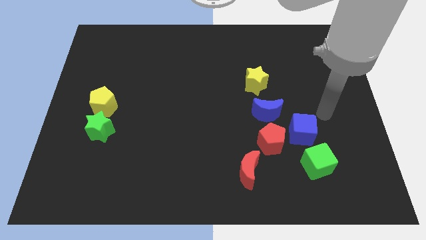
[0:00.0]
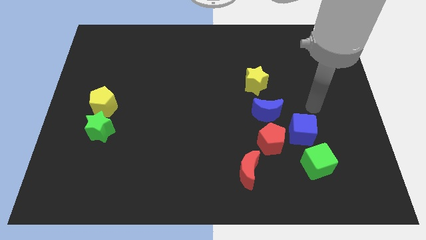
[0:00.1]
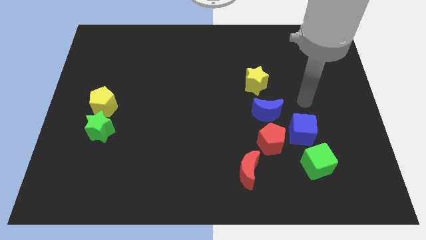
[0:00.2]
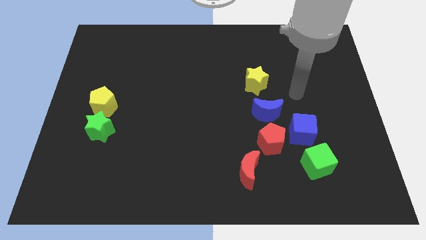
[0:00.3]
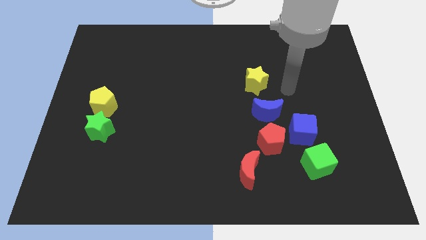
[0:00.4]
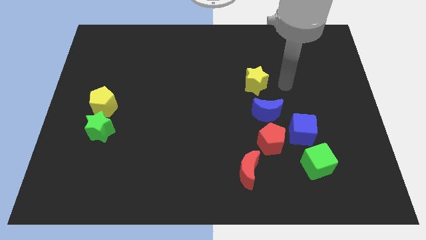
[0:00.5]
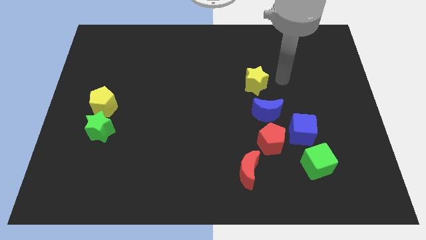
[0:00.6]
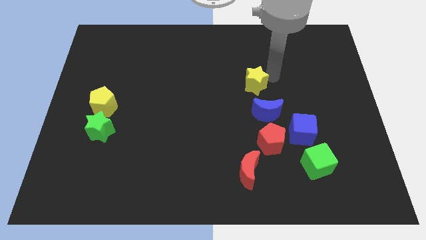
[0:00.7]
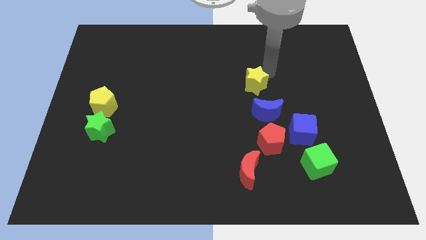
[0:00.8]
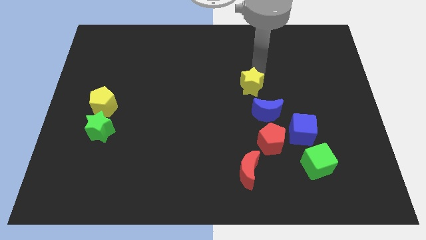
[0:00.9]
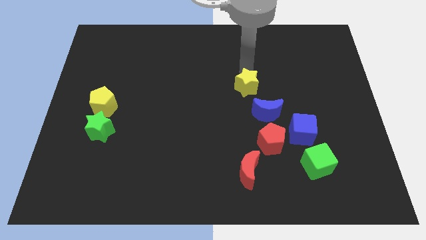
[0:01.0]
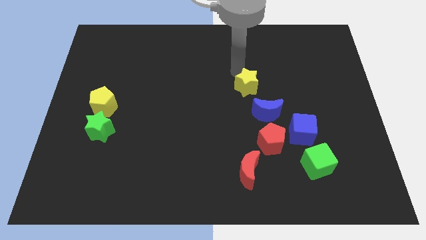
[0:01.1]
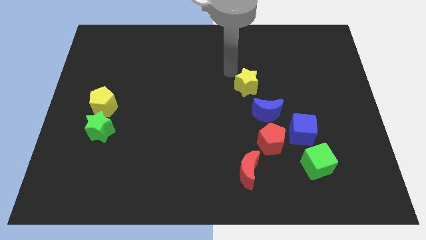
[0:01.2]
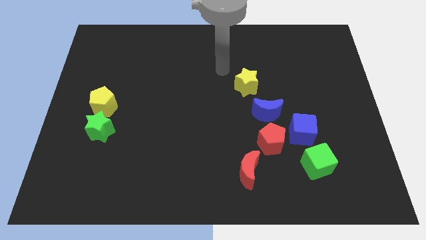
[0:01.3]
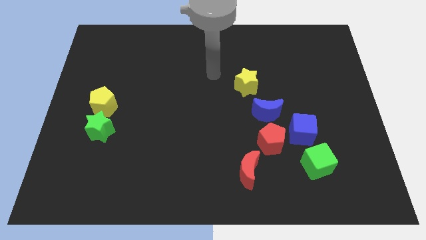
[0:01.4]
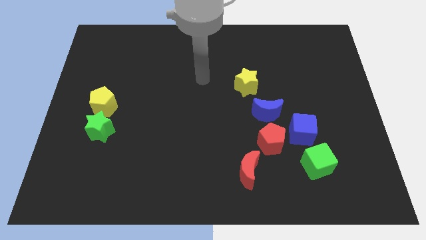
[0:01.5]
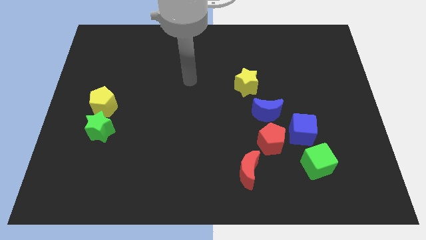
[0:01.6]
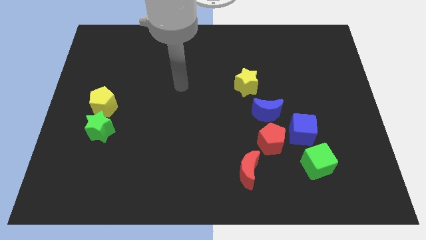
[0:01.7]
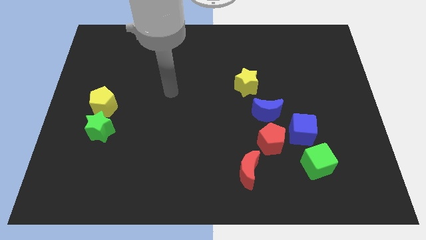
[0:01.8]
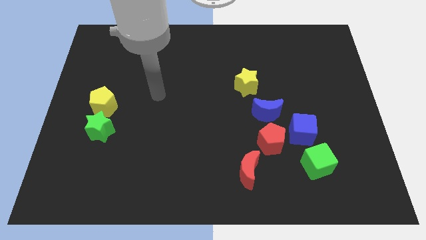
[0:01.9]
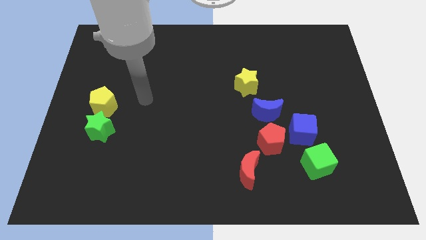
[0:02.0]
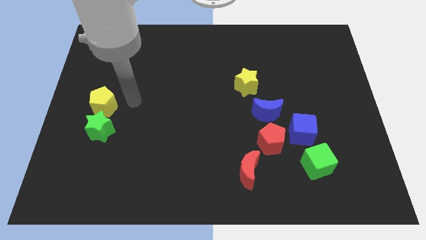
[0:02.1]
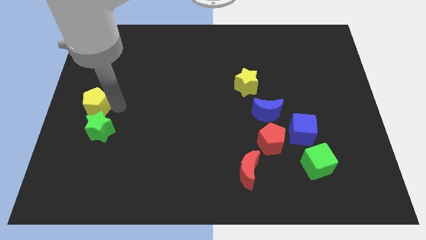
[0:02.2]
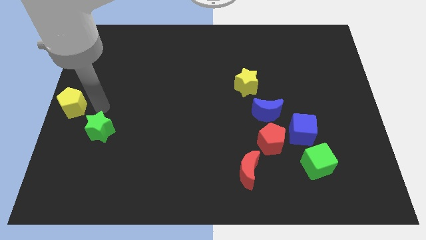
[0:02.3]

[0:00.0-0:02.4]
move the green star away from the yellow pentagon

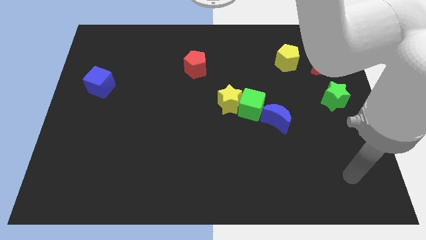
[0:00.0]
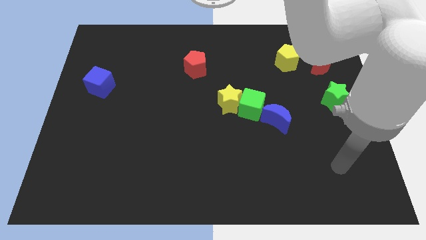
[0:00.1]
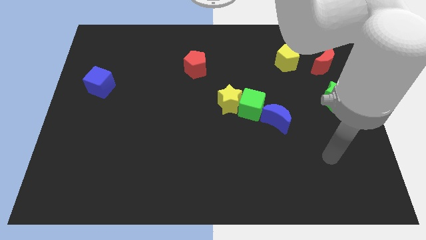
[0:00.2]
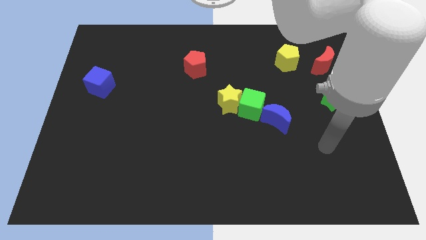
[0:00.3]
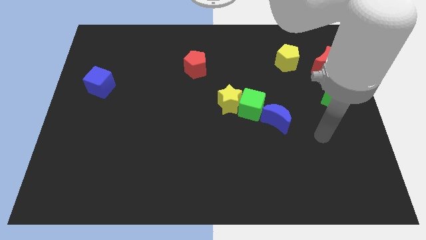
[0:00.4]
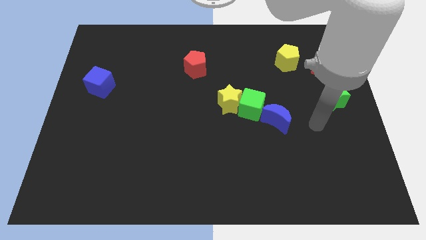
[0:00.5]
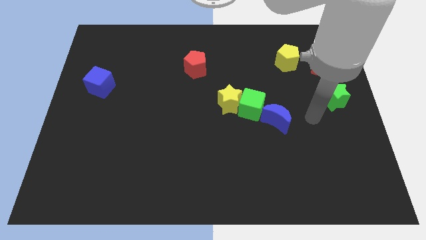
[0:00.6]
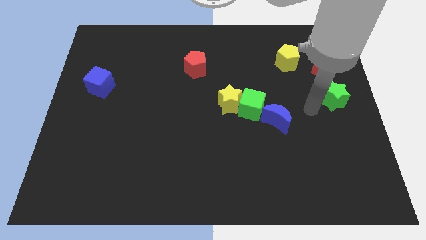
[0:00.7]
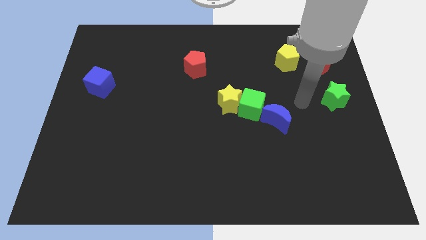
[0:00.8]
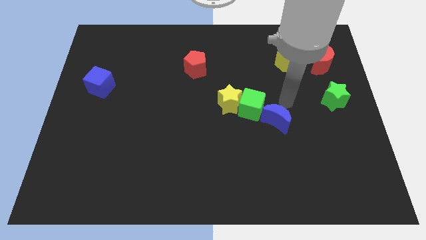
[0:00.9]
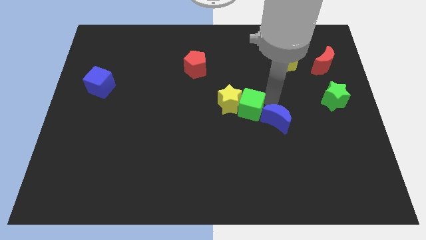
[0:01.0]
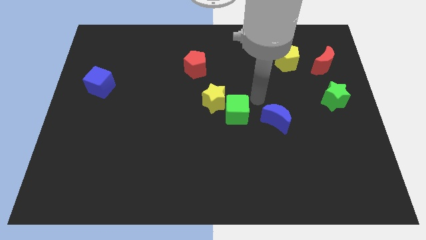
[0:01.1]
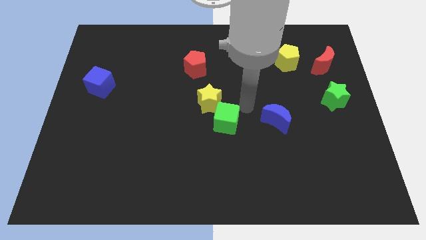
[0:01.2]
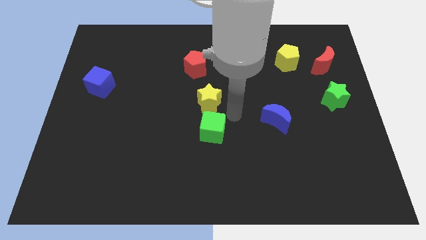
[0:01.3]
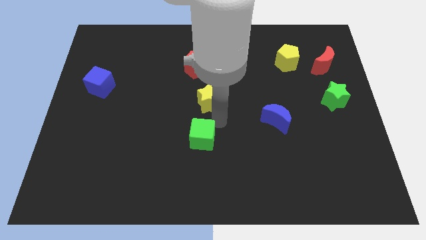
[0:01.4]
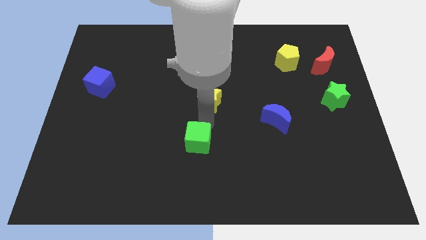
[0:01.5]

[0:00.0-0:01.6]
pull the yellow star apart from the green cube

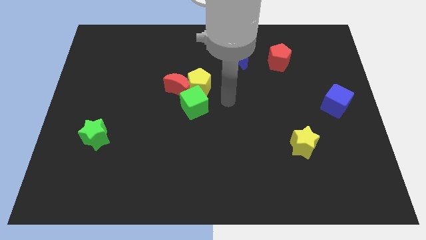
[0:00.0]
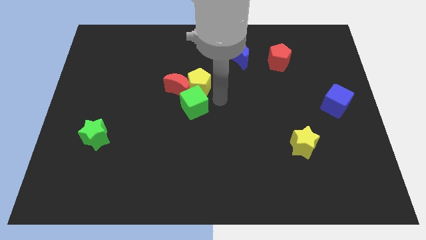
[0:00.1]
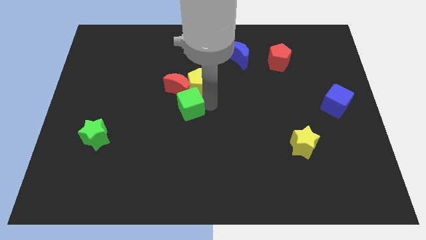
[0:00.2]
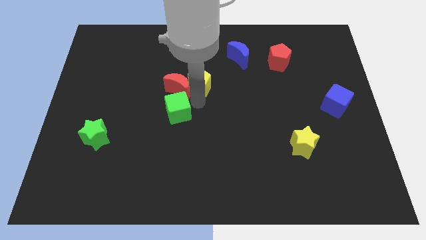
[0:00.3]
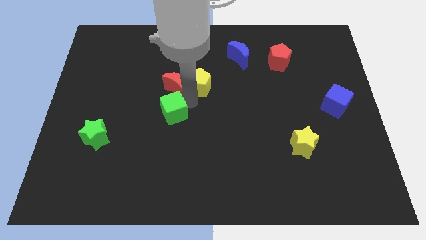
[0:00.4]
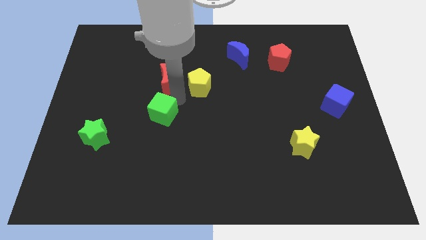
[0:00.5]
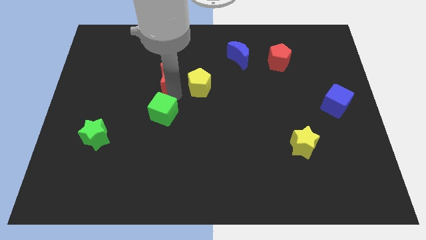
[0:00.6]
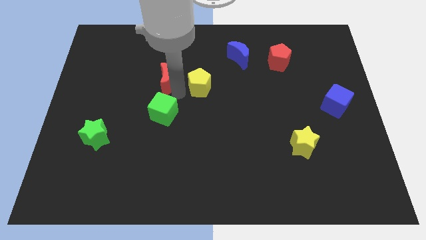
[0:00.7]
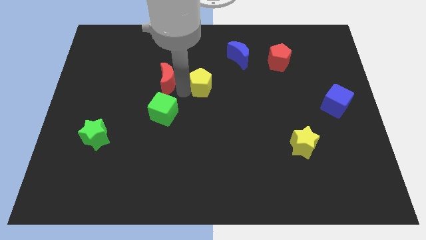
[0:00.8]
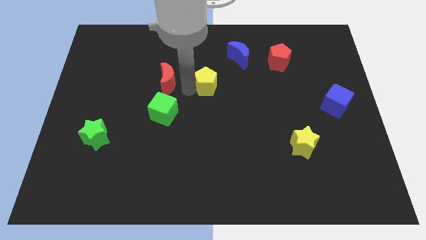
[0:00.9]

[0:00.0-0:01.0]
pull the yellow pentagon apart from the red moon and green cube

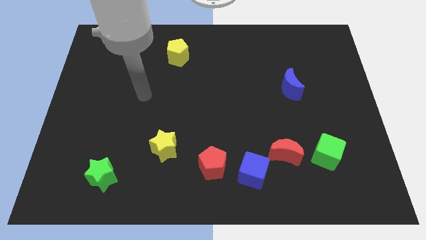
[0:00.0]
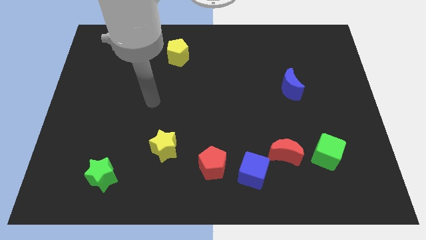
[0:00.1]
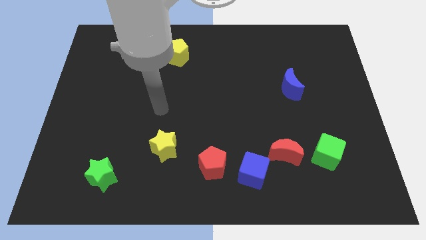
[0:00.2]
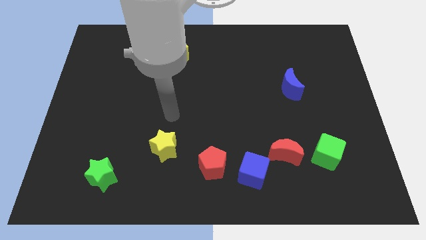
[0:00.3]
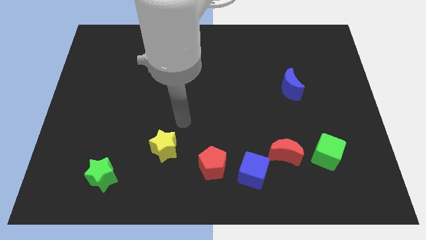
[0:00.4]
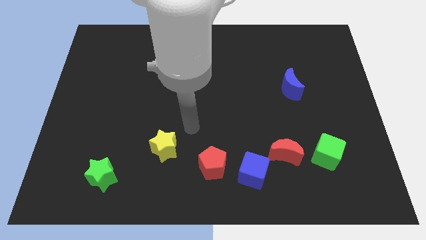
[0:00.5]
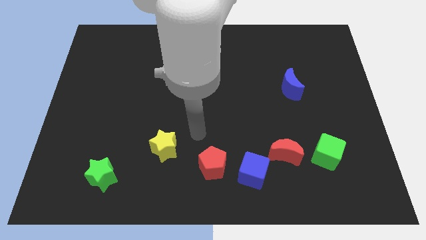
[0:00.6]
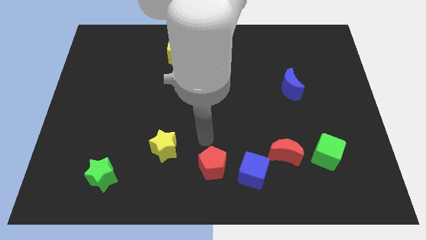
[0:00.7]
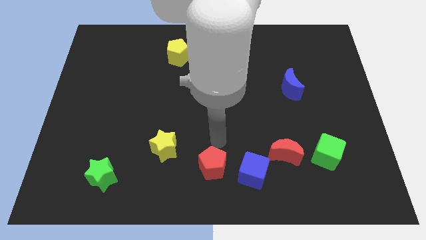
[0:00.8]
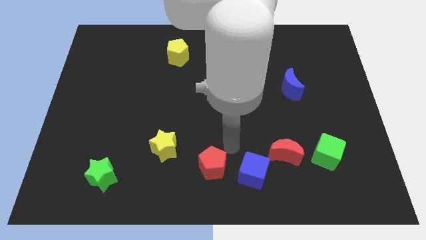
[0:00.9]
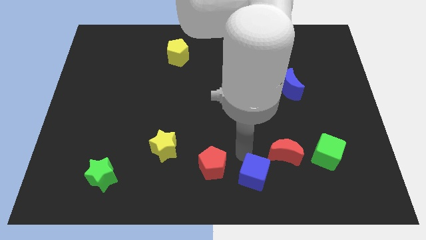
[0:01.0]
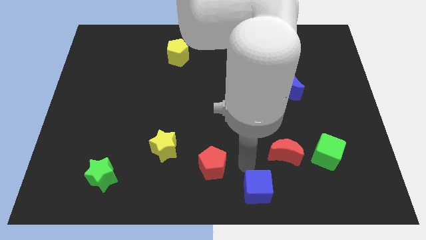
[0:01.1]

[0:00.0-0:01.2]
move the red pentagon away from the blue cube

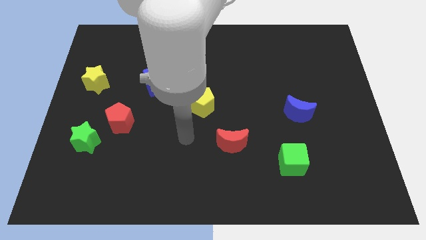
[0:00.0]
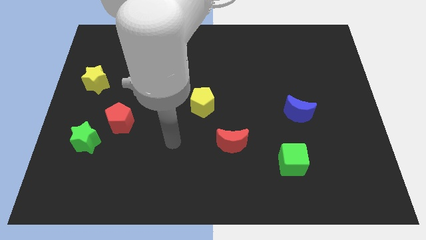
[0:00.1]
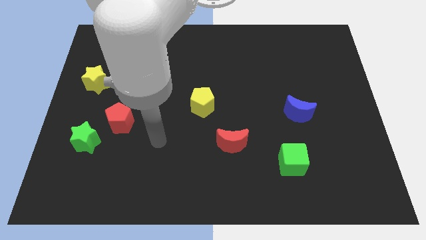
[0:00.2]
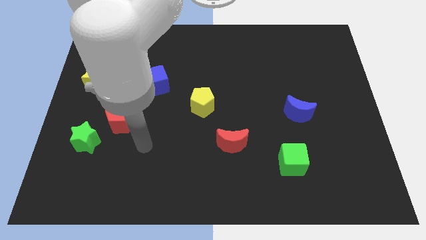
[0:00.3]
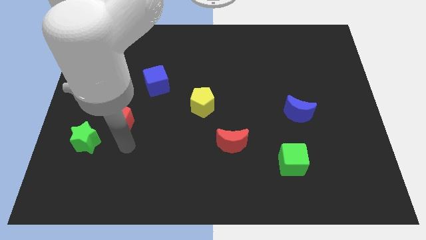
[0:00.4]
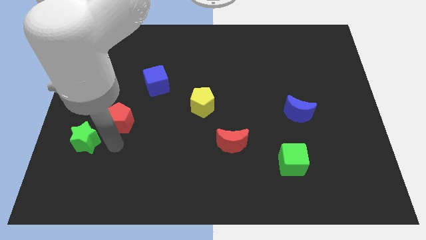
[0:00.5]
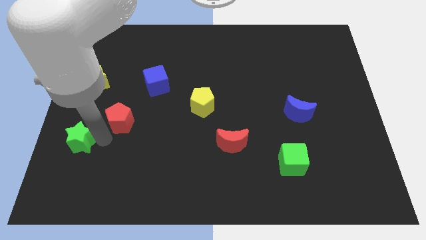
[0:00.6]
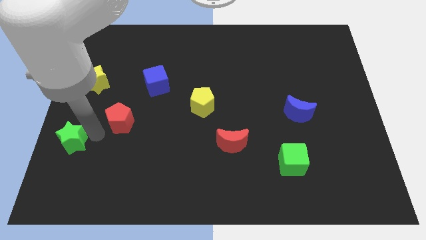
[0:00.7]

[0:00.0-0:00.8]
separate the red pentagon from the green star

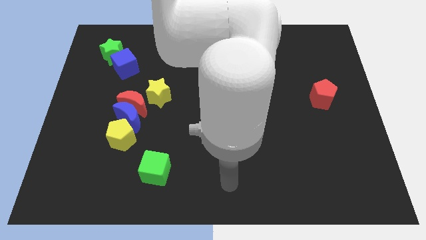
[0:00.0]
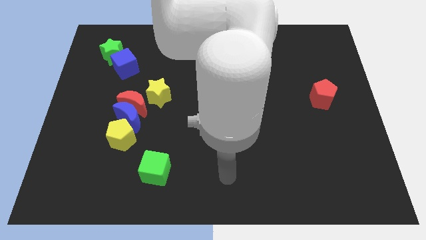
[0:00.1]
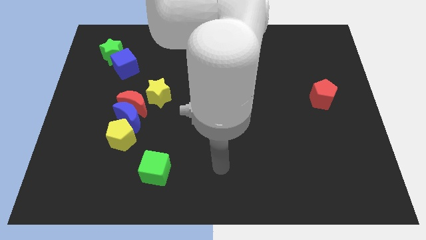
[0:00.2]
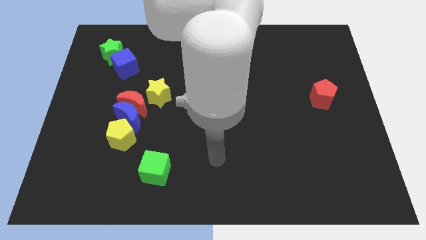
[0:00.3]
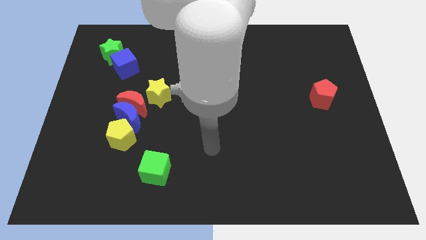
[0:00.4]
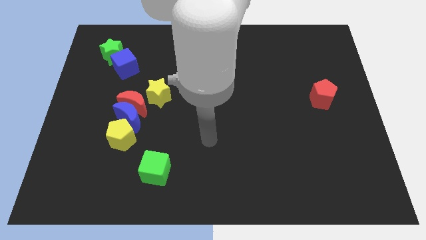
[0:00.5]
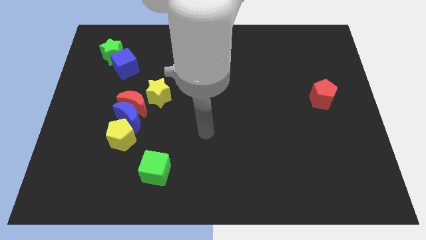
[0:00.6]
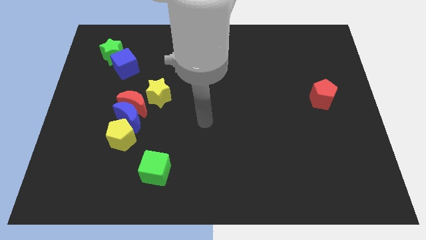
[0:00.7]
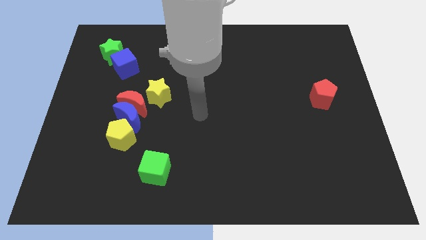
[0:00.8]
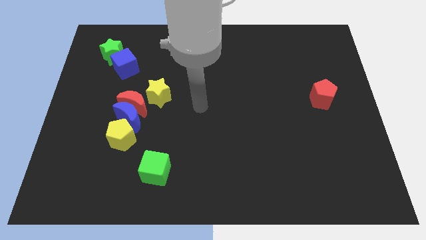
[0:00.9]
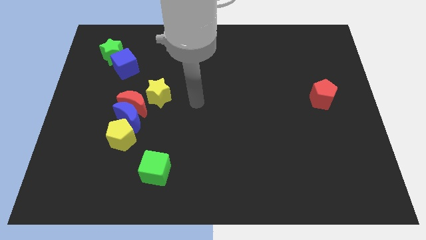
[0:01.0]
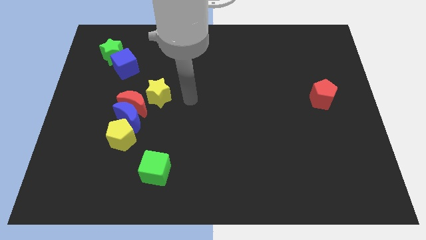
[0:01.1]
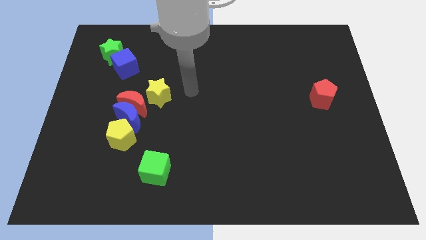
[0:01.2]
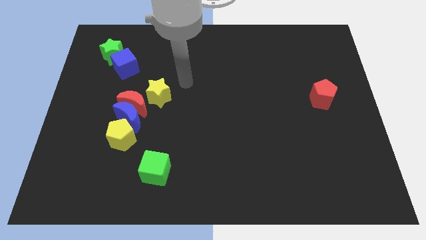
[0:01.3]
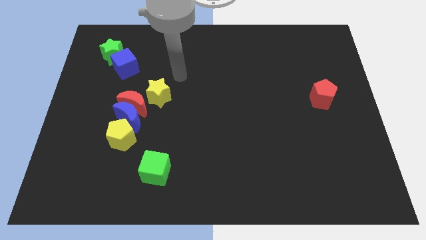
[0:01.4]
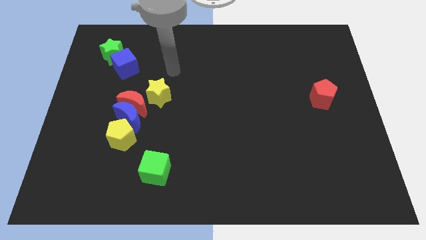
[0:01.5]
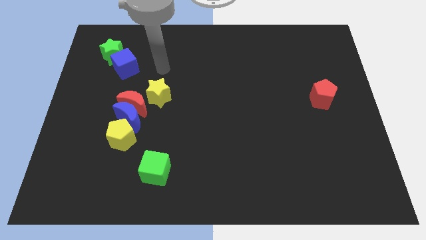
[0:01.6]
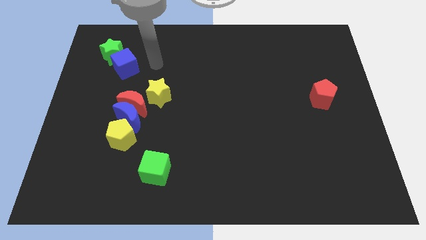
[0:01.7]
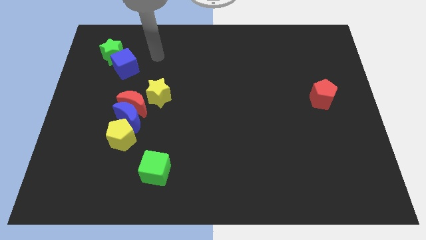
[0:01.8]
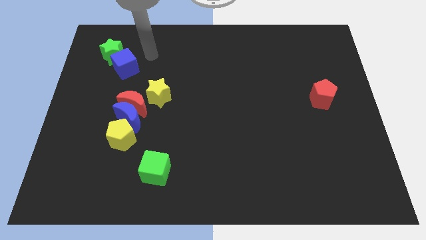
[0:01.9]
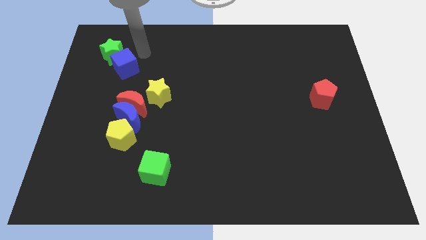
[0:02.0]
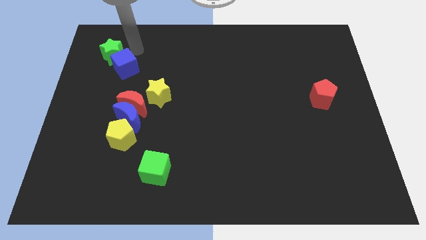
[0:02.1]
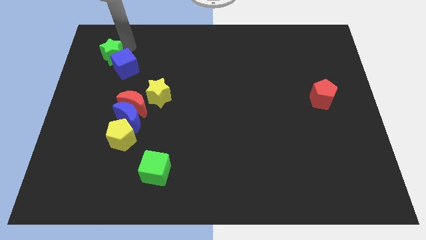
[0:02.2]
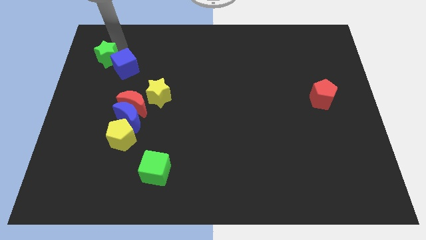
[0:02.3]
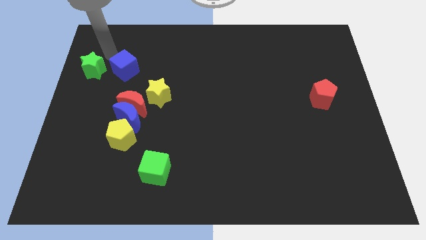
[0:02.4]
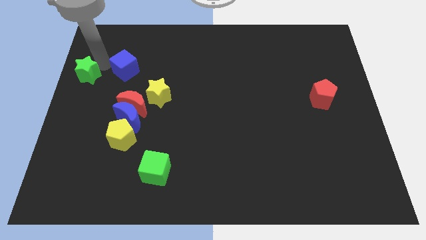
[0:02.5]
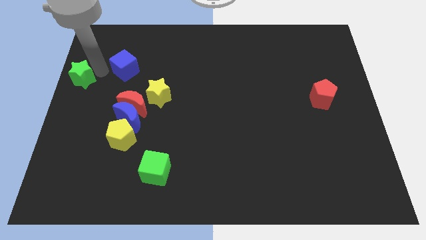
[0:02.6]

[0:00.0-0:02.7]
move the blue cube away from the green star
